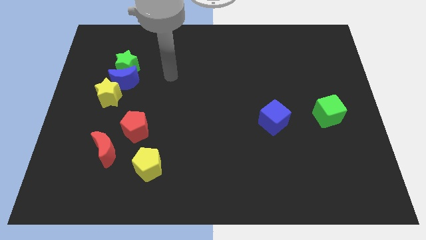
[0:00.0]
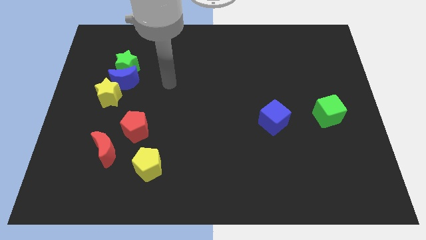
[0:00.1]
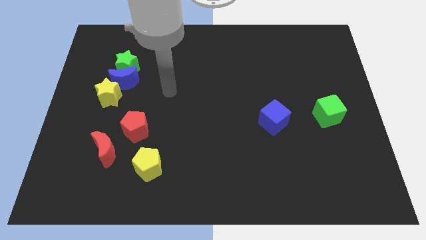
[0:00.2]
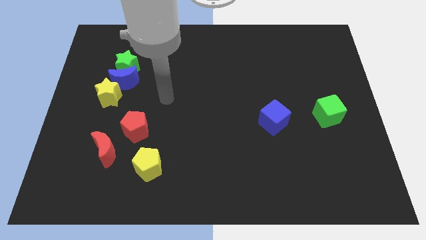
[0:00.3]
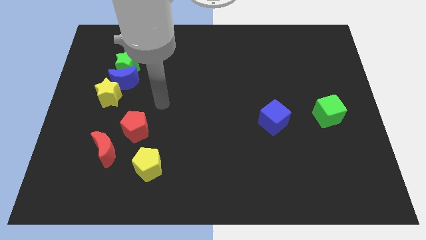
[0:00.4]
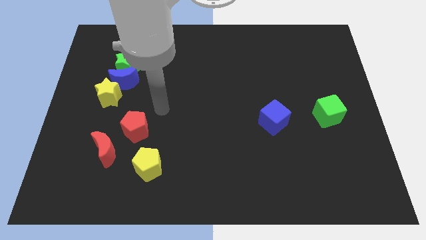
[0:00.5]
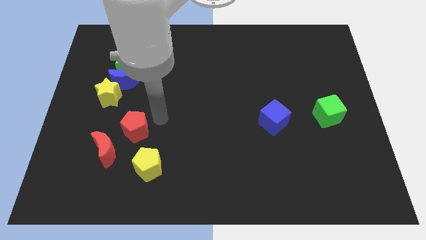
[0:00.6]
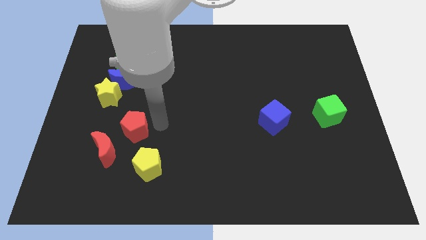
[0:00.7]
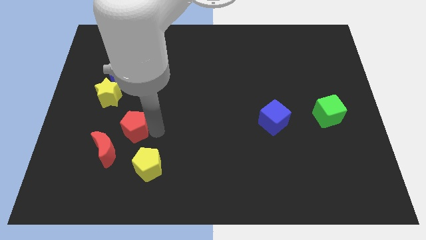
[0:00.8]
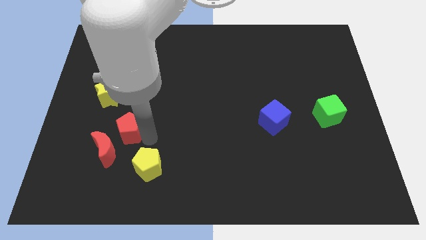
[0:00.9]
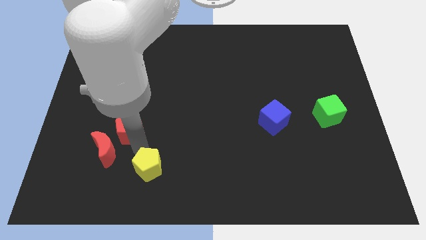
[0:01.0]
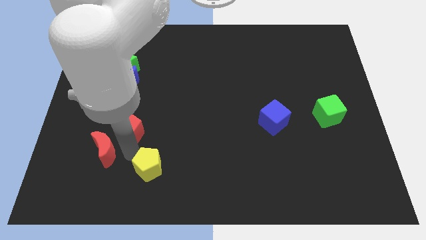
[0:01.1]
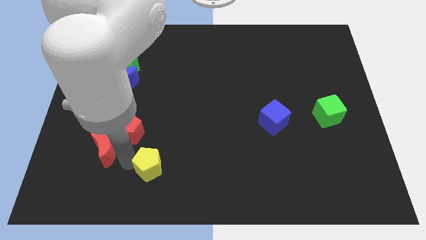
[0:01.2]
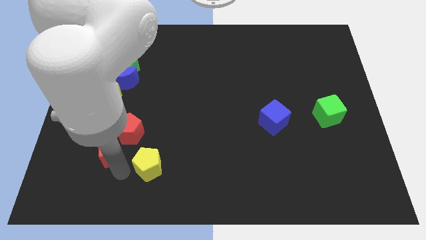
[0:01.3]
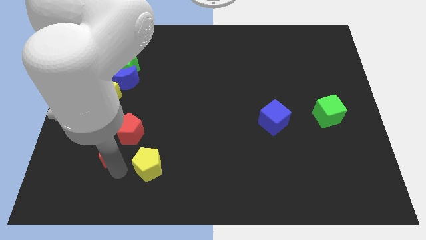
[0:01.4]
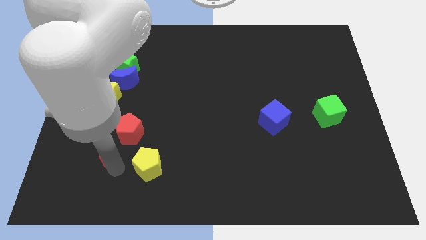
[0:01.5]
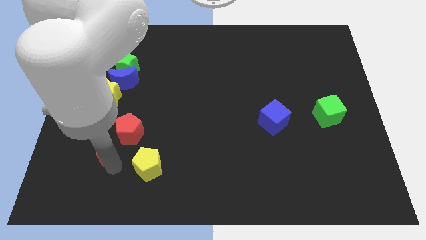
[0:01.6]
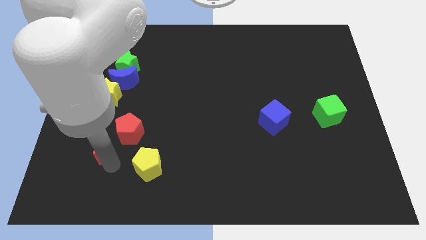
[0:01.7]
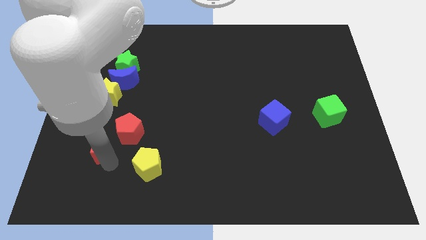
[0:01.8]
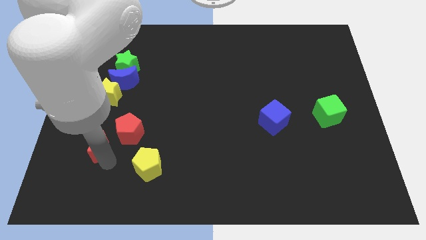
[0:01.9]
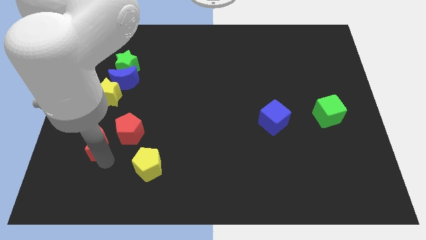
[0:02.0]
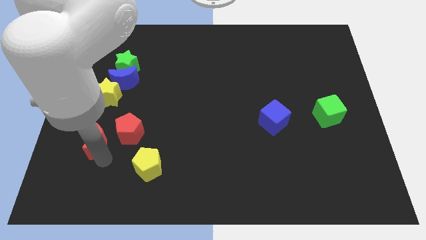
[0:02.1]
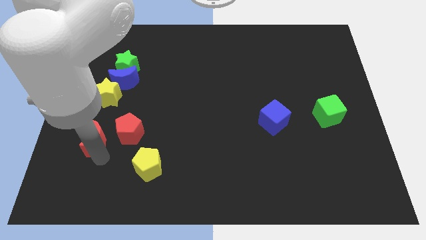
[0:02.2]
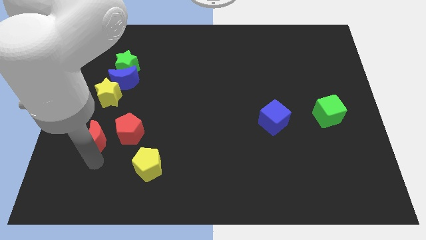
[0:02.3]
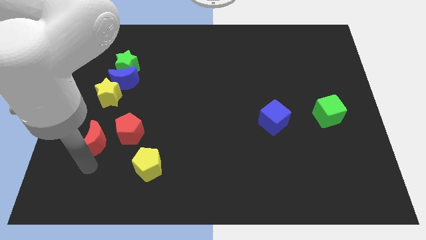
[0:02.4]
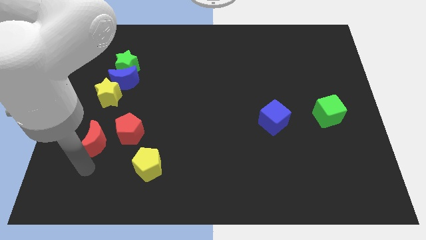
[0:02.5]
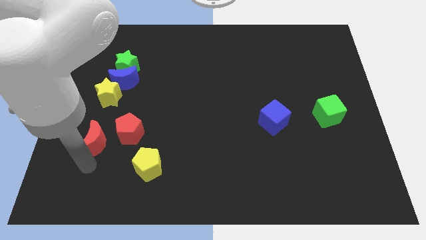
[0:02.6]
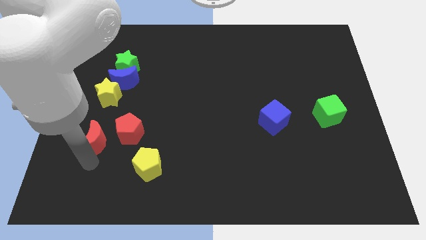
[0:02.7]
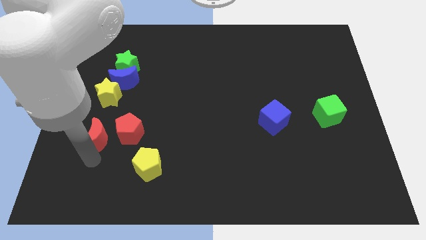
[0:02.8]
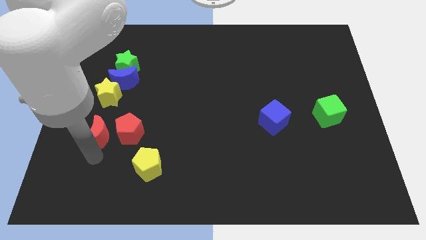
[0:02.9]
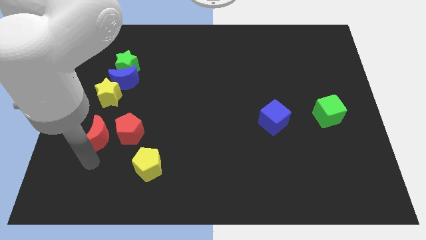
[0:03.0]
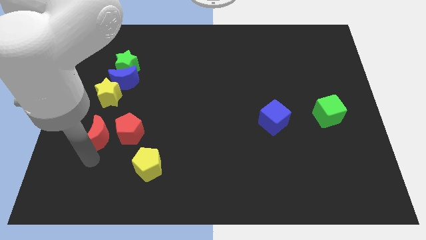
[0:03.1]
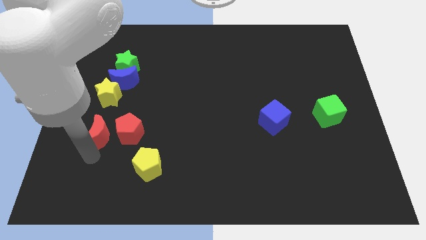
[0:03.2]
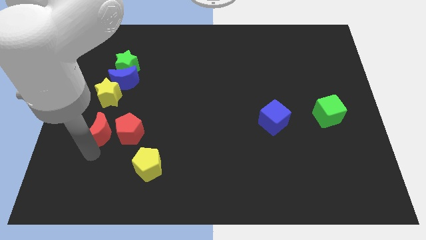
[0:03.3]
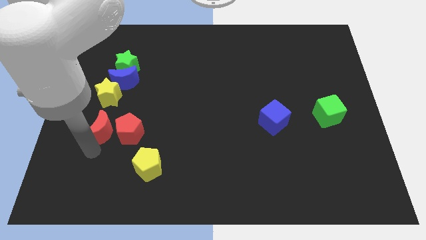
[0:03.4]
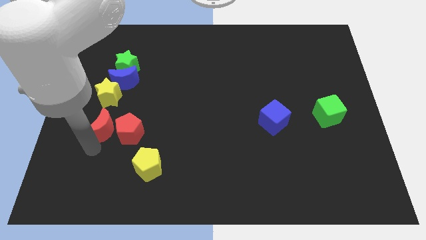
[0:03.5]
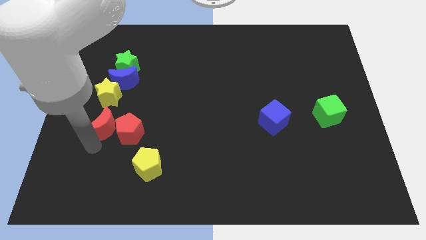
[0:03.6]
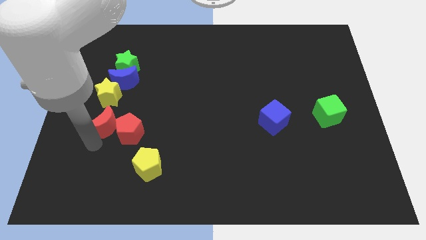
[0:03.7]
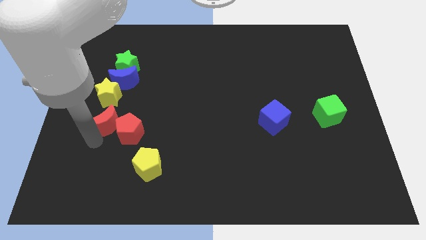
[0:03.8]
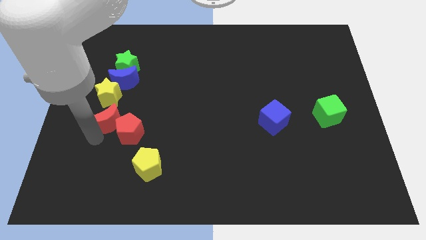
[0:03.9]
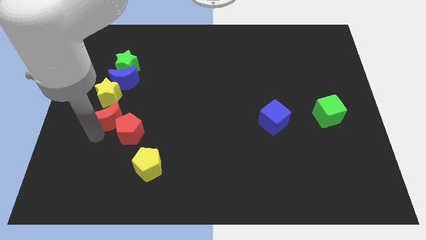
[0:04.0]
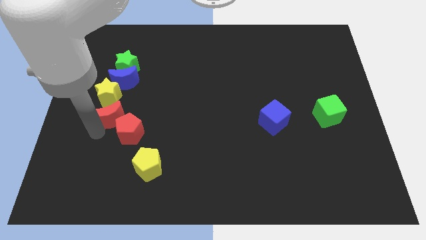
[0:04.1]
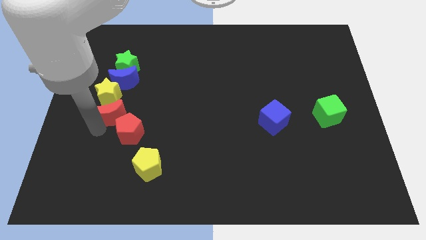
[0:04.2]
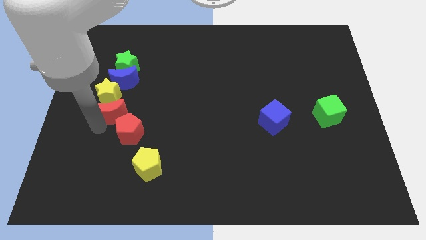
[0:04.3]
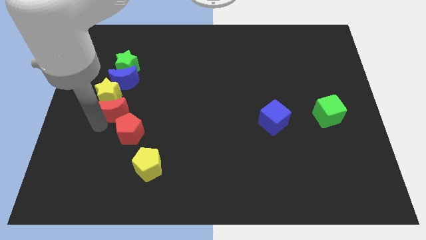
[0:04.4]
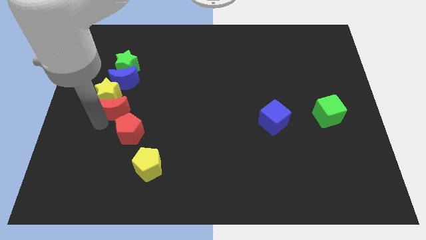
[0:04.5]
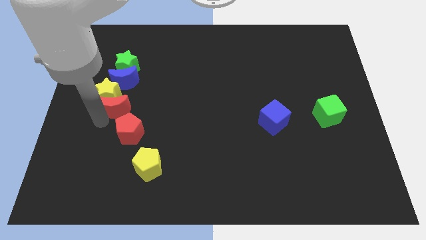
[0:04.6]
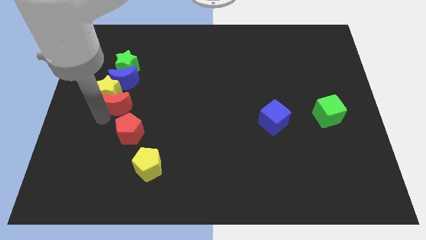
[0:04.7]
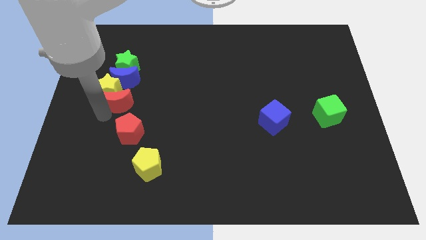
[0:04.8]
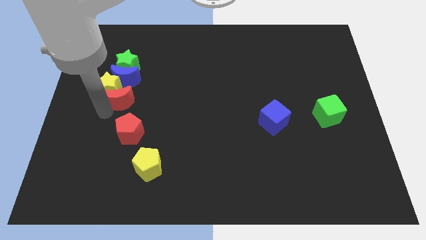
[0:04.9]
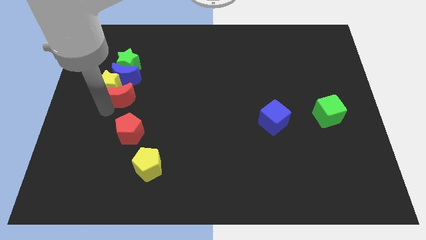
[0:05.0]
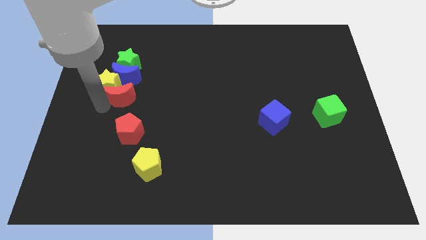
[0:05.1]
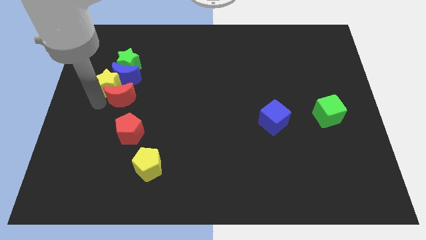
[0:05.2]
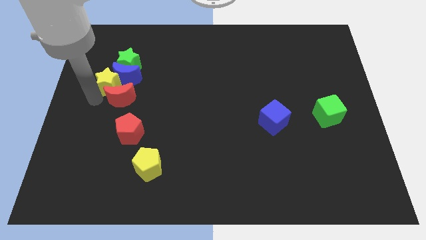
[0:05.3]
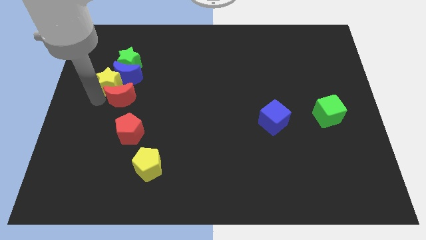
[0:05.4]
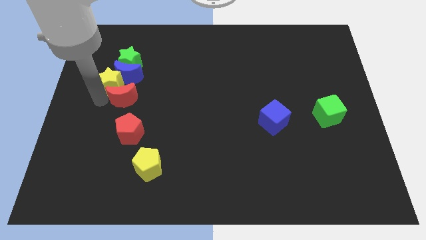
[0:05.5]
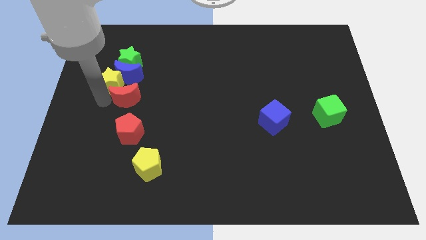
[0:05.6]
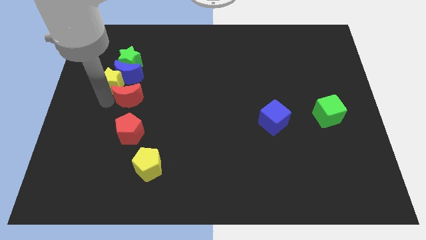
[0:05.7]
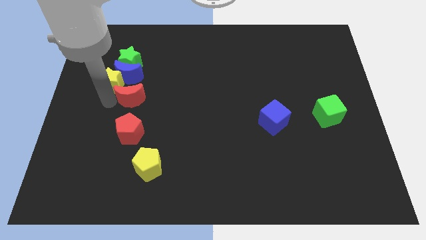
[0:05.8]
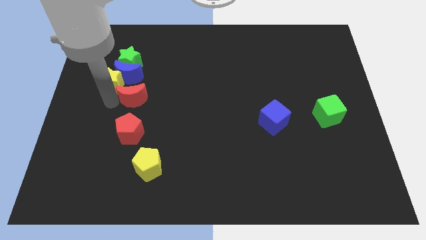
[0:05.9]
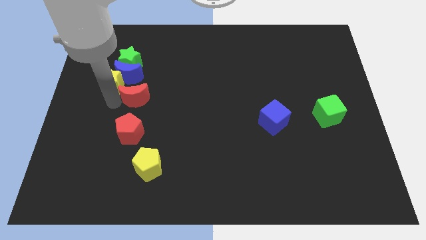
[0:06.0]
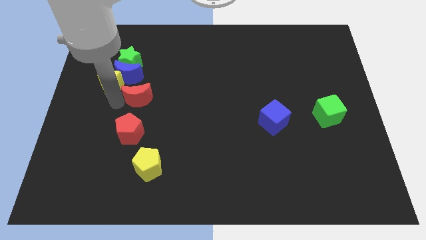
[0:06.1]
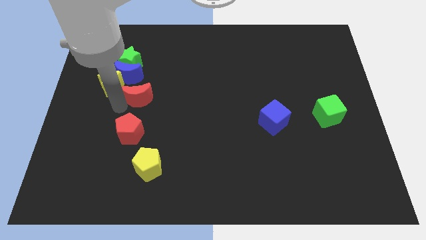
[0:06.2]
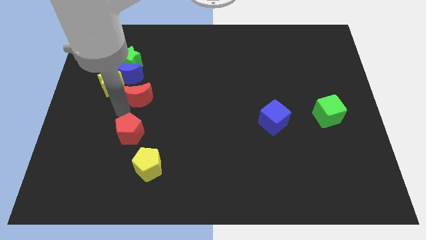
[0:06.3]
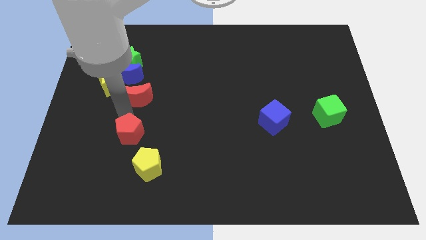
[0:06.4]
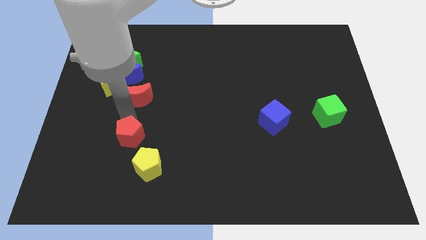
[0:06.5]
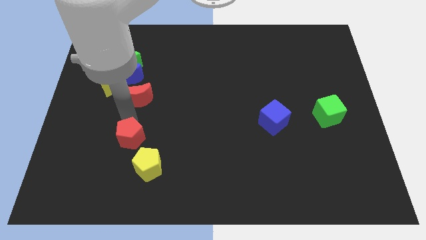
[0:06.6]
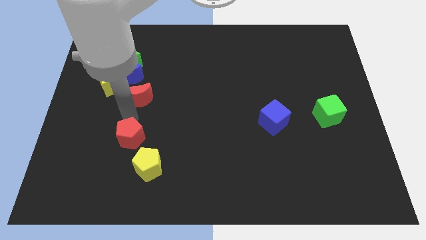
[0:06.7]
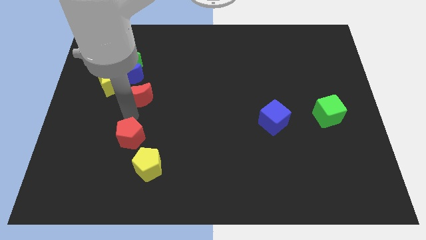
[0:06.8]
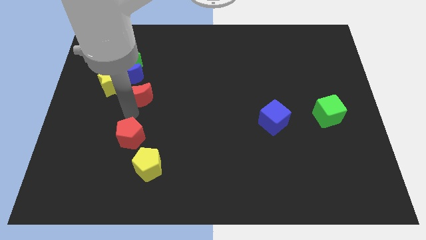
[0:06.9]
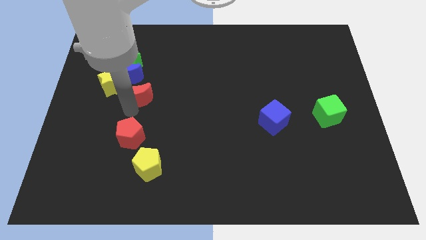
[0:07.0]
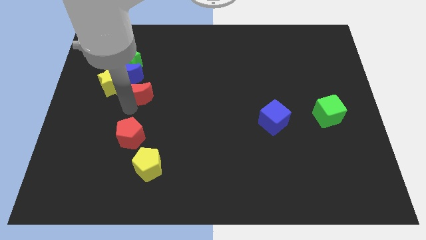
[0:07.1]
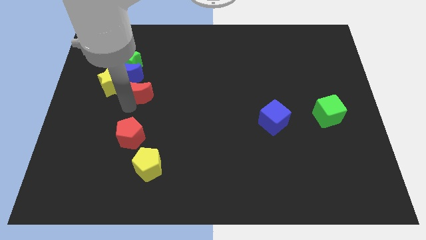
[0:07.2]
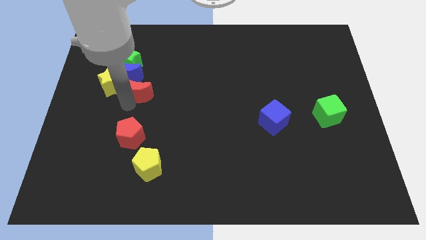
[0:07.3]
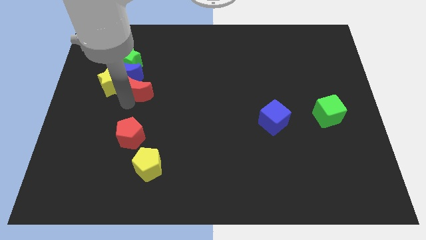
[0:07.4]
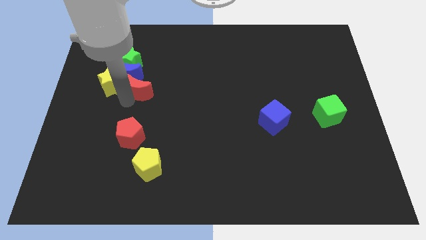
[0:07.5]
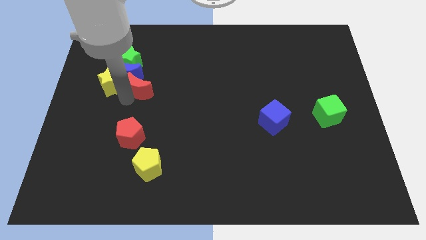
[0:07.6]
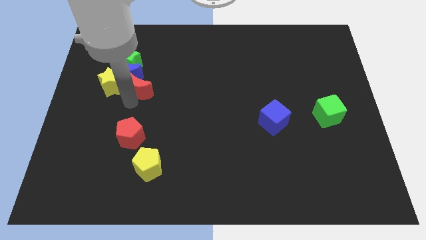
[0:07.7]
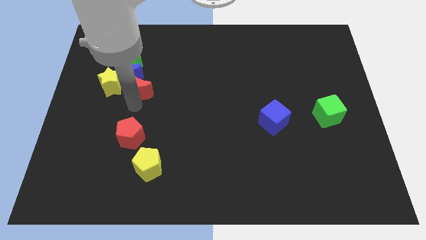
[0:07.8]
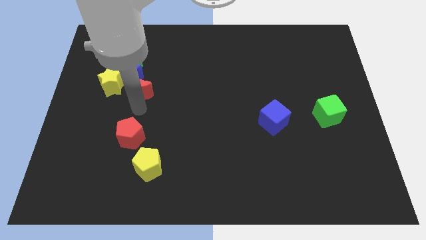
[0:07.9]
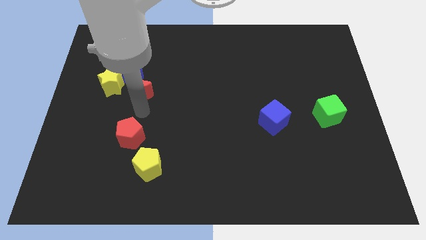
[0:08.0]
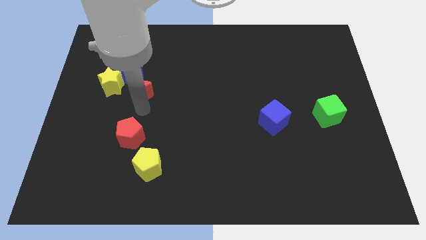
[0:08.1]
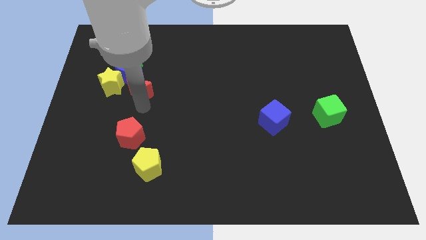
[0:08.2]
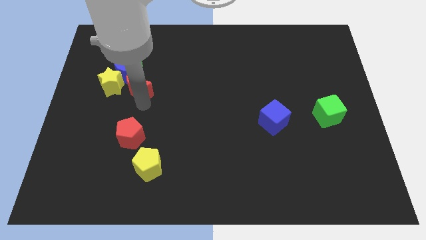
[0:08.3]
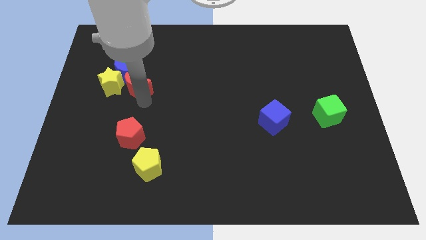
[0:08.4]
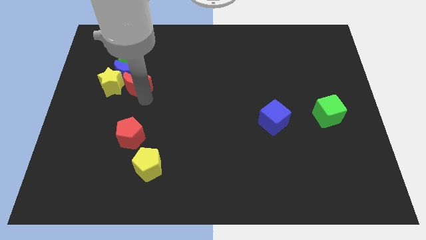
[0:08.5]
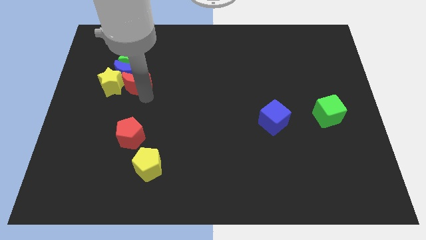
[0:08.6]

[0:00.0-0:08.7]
move the red moon to the top right of the yellow star
